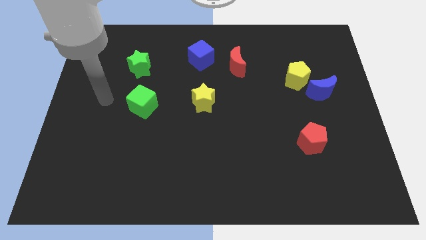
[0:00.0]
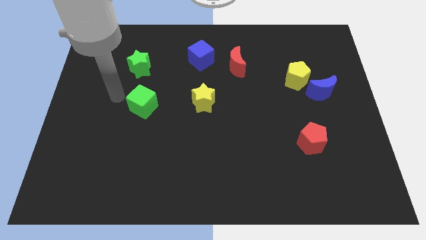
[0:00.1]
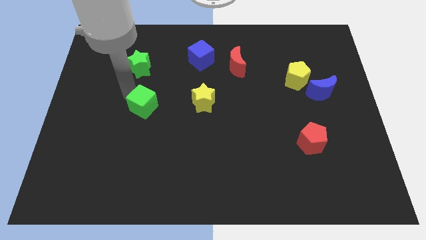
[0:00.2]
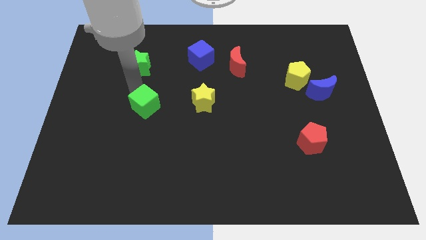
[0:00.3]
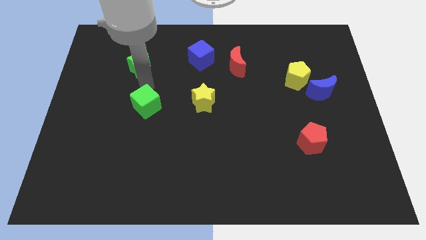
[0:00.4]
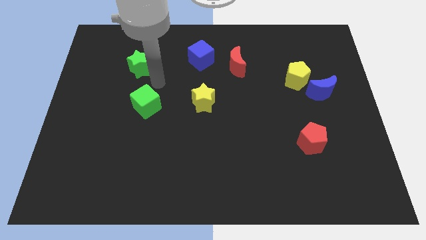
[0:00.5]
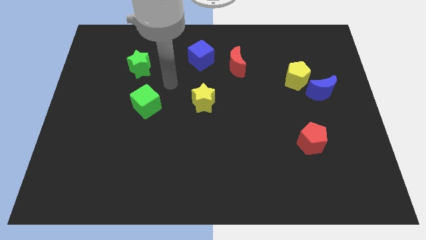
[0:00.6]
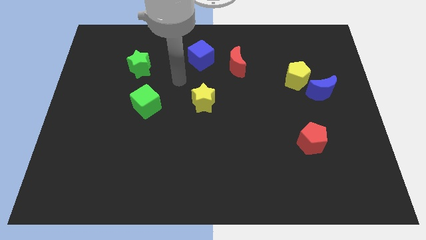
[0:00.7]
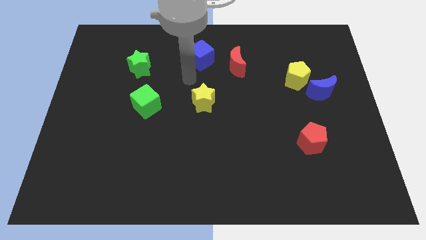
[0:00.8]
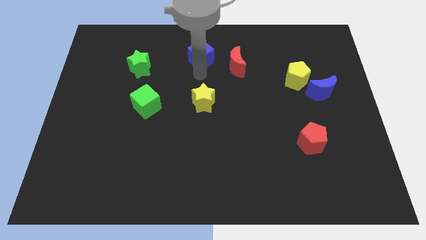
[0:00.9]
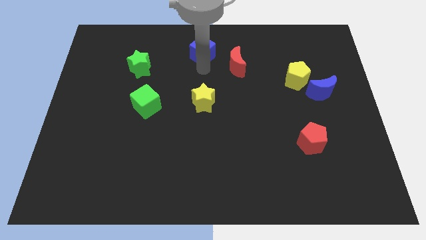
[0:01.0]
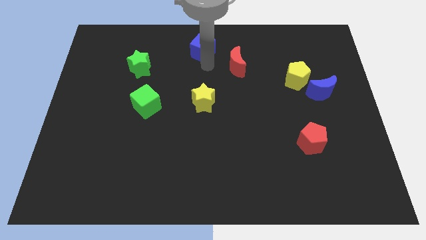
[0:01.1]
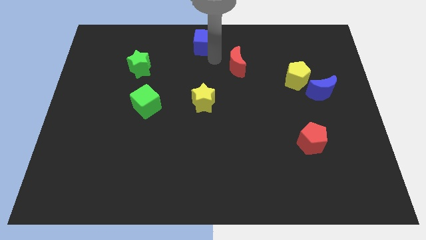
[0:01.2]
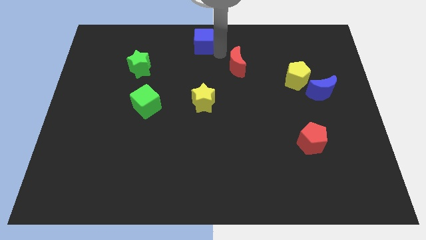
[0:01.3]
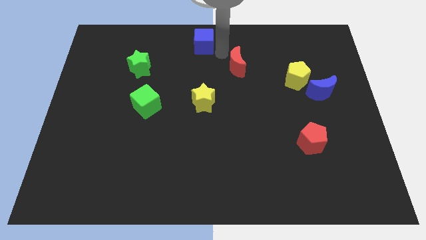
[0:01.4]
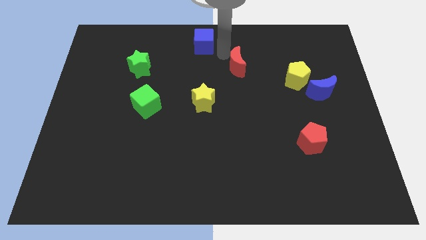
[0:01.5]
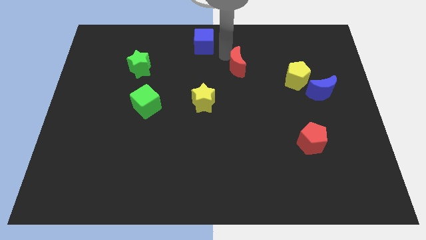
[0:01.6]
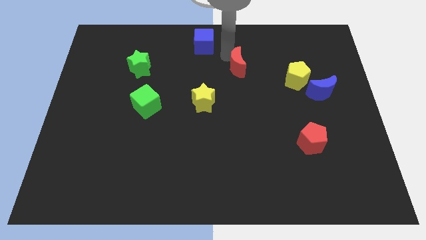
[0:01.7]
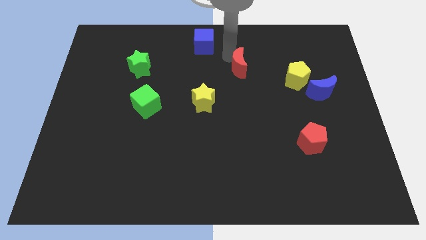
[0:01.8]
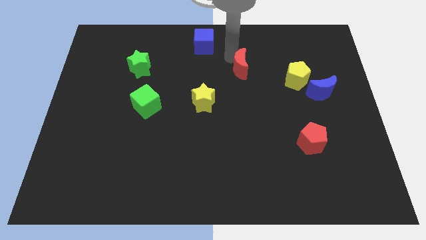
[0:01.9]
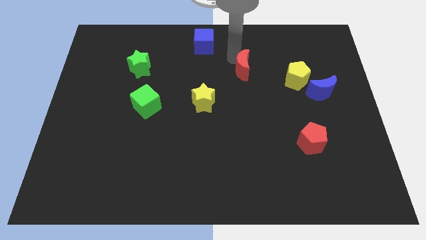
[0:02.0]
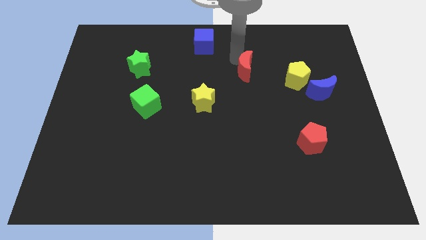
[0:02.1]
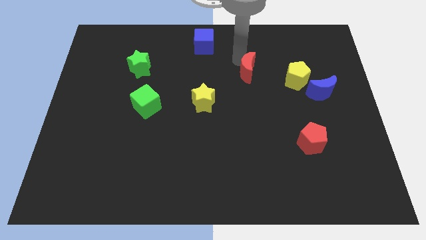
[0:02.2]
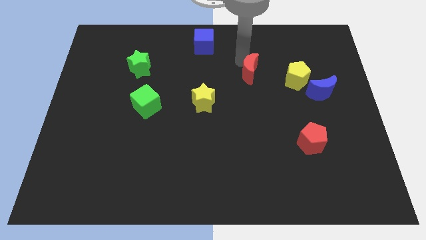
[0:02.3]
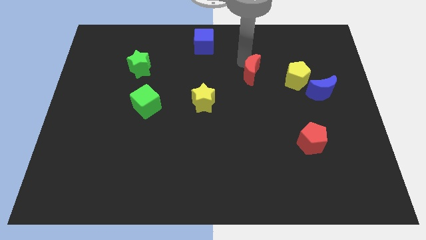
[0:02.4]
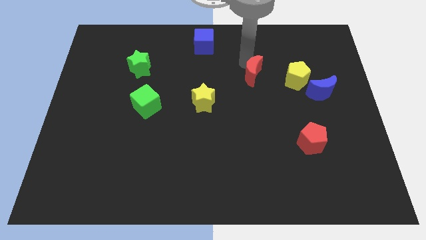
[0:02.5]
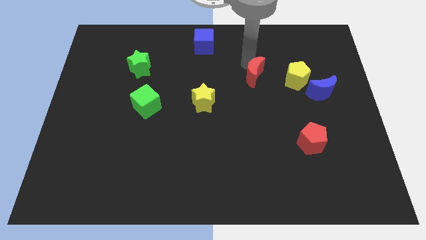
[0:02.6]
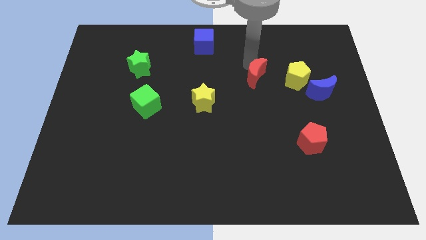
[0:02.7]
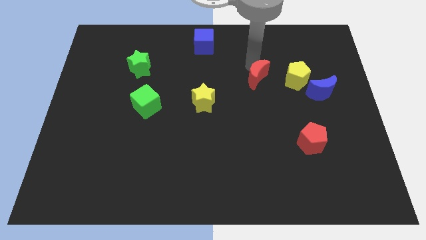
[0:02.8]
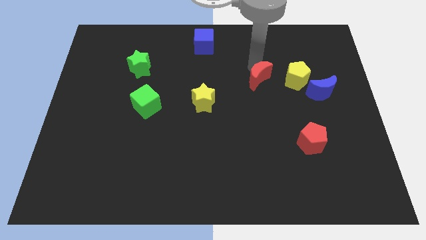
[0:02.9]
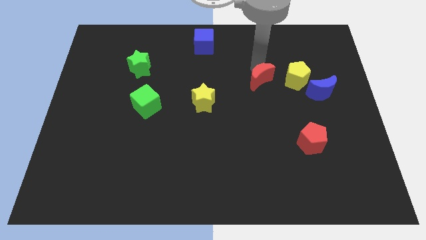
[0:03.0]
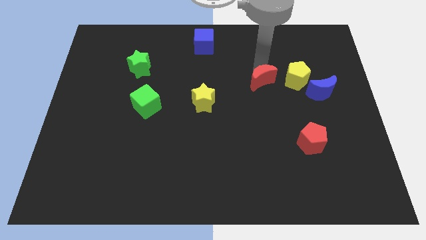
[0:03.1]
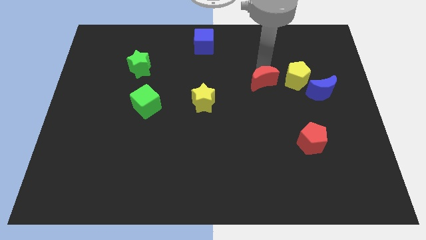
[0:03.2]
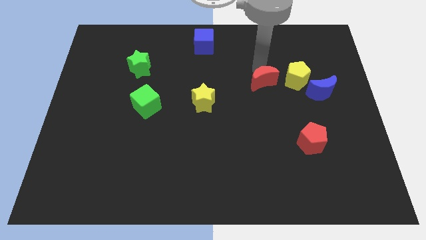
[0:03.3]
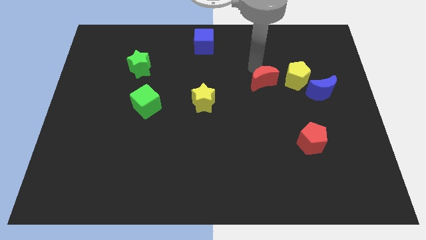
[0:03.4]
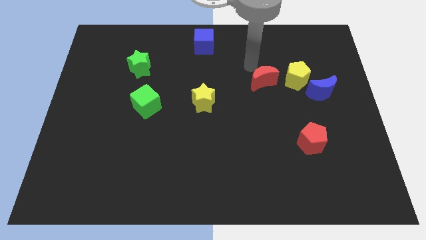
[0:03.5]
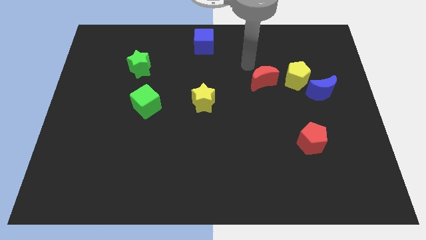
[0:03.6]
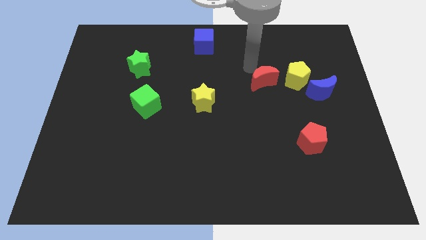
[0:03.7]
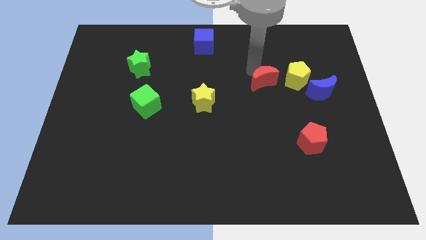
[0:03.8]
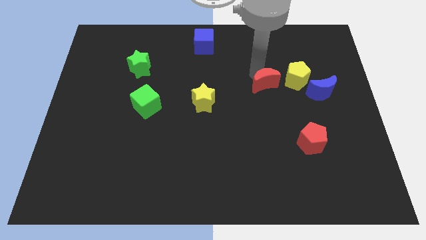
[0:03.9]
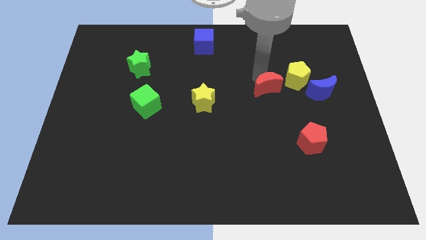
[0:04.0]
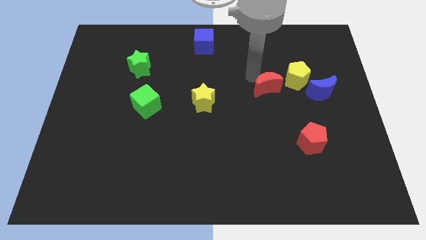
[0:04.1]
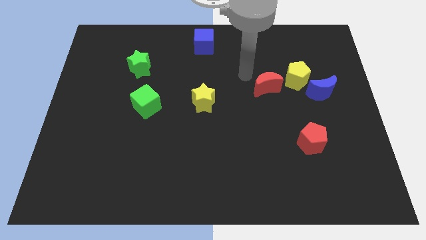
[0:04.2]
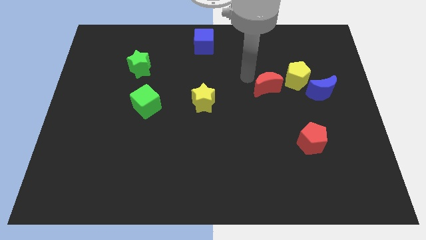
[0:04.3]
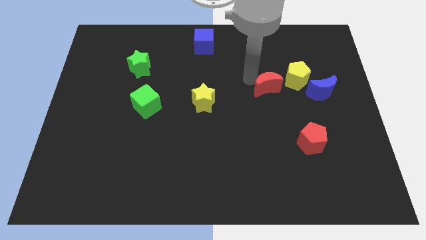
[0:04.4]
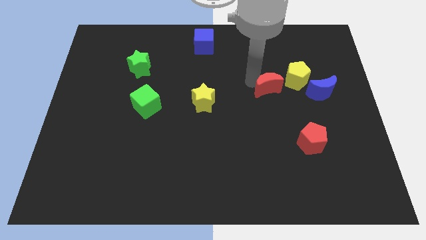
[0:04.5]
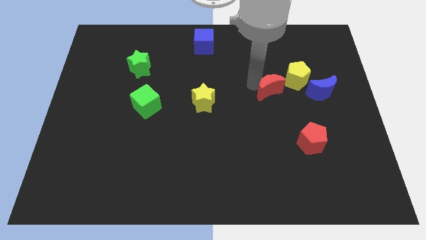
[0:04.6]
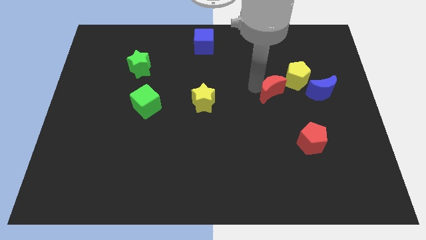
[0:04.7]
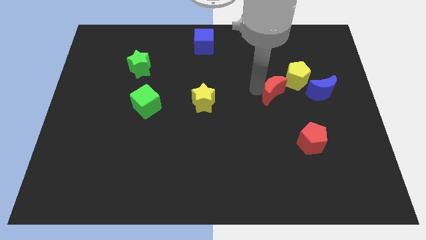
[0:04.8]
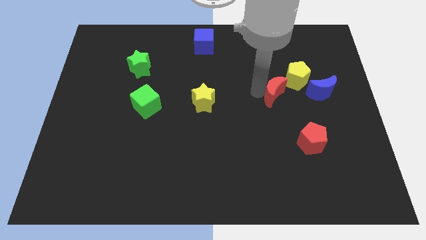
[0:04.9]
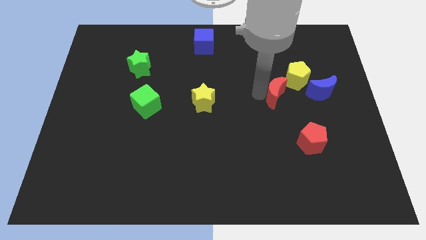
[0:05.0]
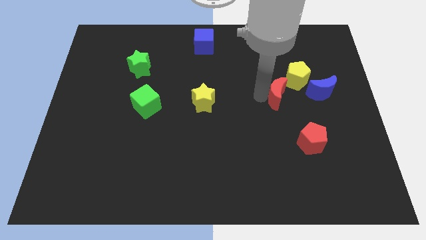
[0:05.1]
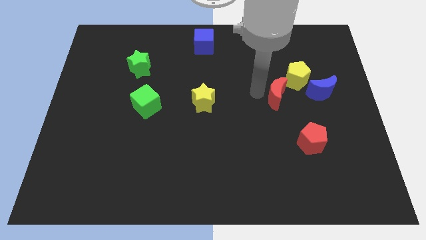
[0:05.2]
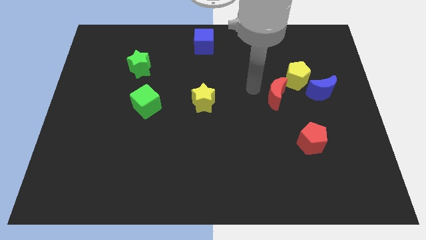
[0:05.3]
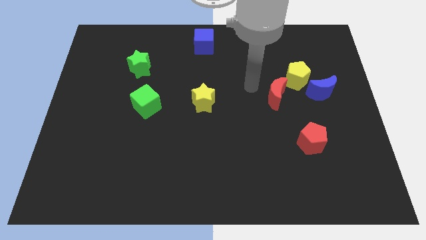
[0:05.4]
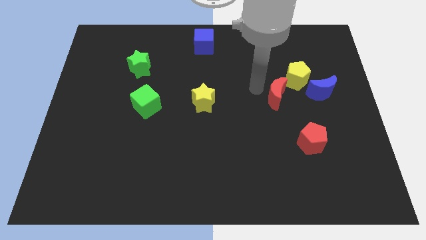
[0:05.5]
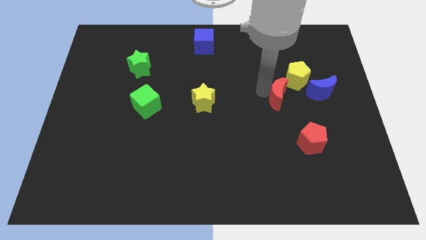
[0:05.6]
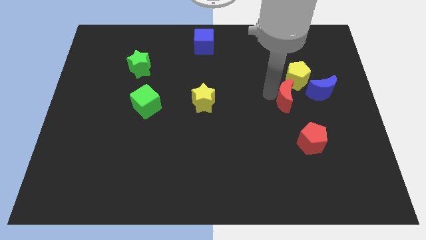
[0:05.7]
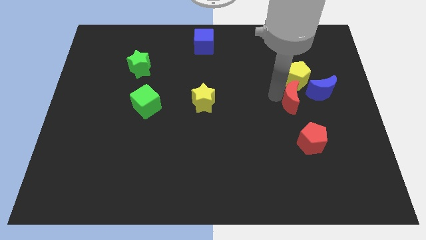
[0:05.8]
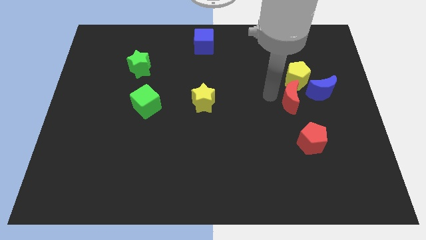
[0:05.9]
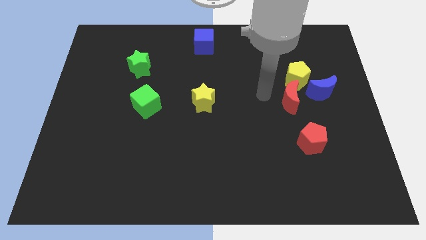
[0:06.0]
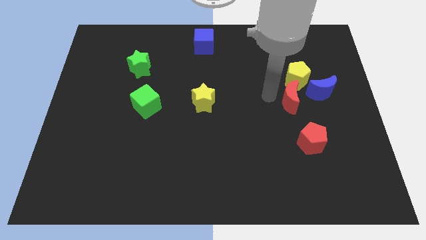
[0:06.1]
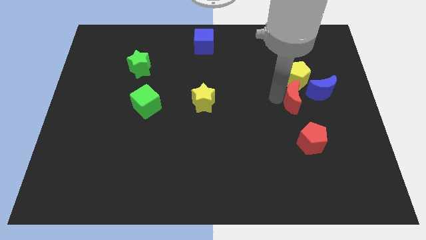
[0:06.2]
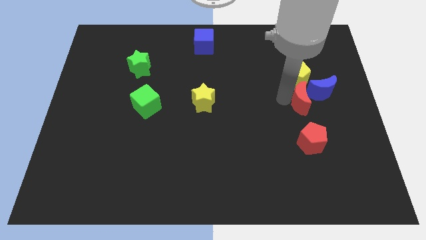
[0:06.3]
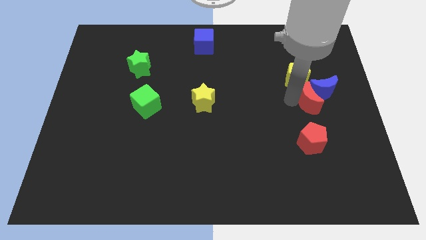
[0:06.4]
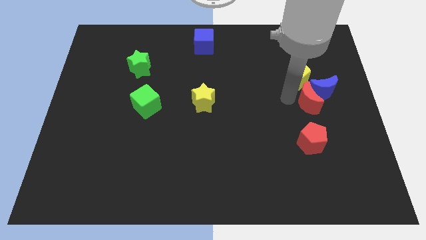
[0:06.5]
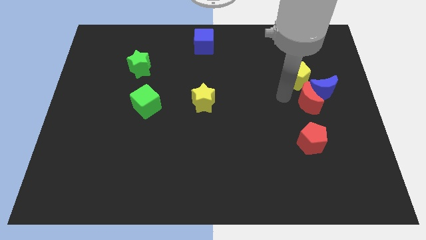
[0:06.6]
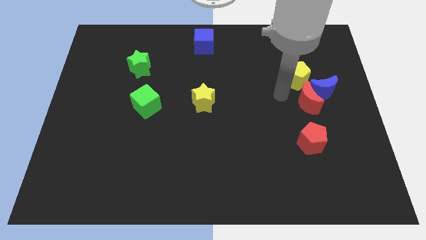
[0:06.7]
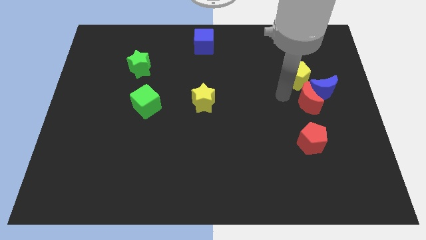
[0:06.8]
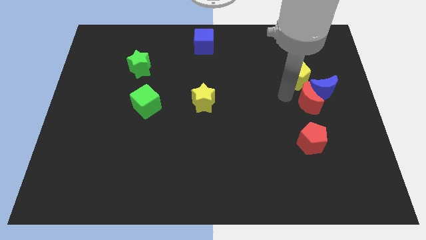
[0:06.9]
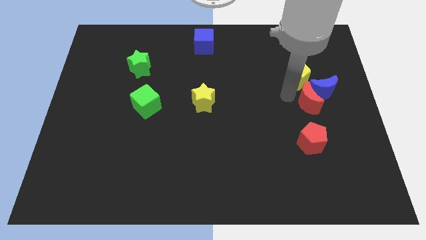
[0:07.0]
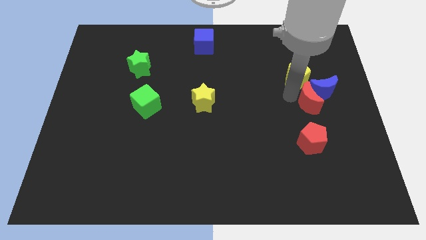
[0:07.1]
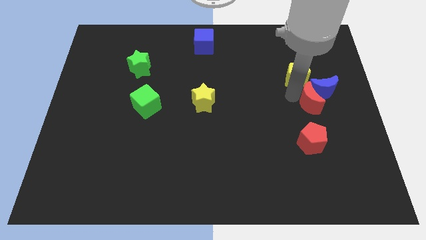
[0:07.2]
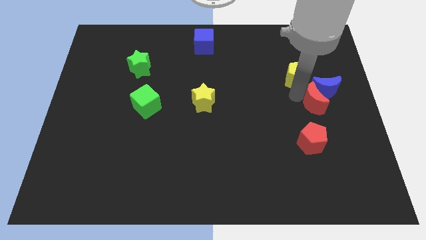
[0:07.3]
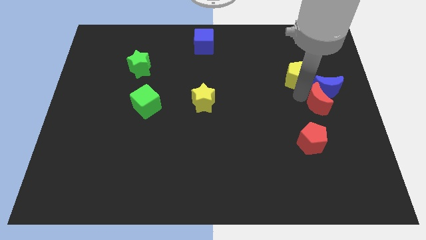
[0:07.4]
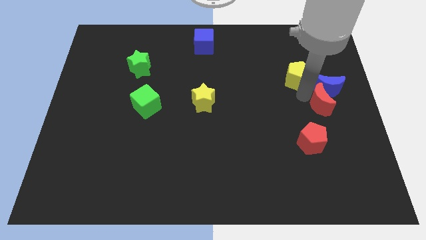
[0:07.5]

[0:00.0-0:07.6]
push the red moon to the center right
